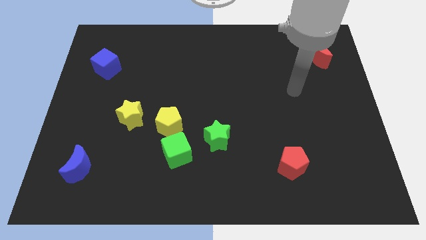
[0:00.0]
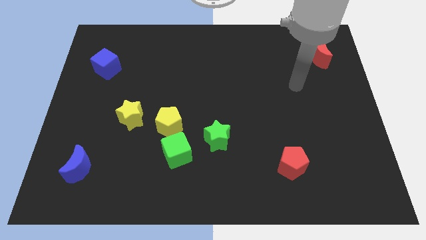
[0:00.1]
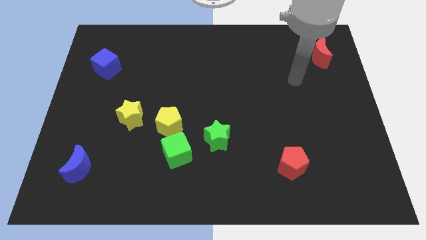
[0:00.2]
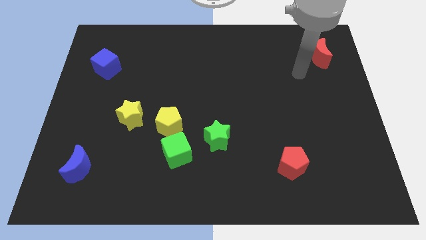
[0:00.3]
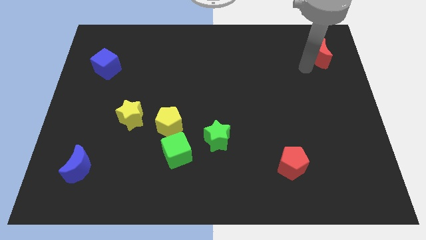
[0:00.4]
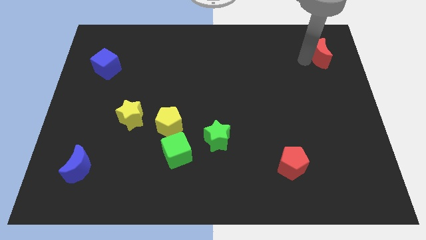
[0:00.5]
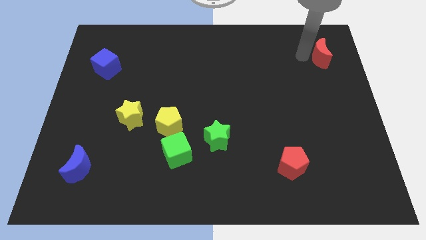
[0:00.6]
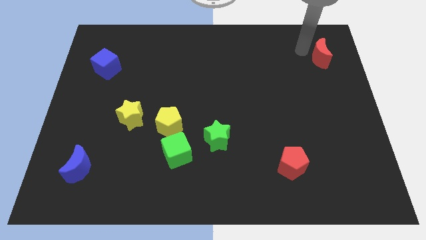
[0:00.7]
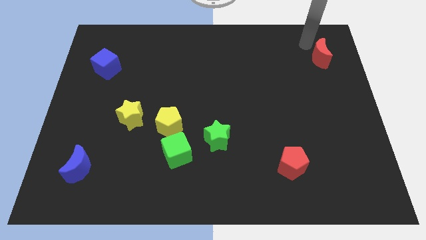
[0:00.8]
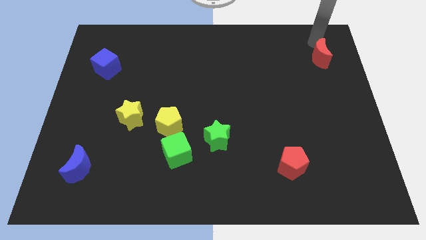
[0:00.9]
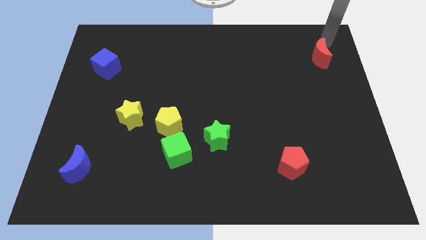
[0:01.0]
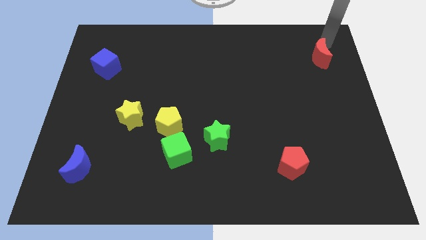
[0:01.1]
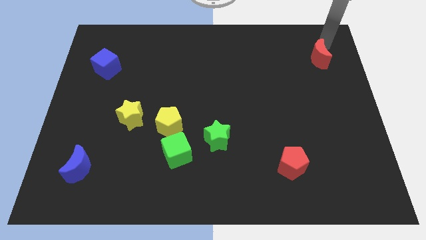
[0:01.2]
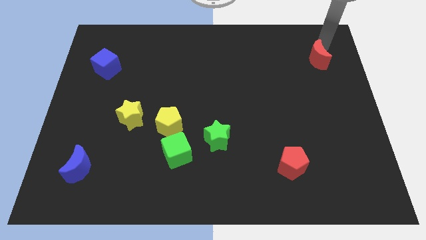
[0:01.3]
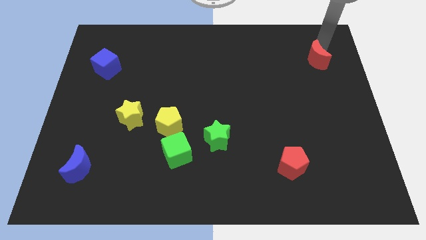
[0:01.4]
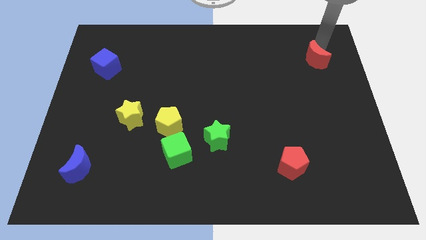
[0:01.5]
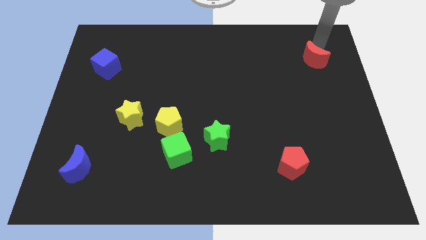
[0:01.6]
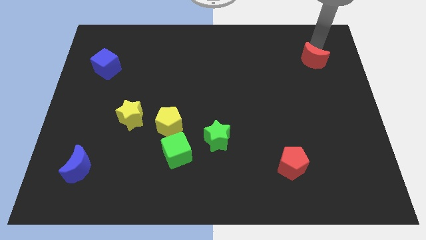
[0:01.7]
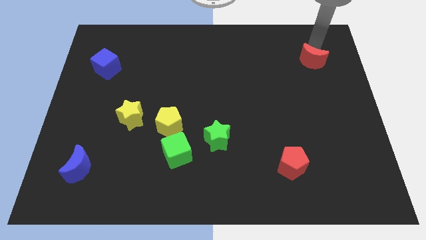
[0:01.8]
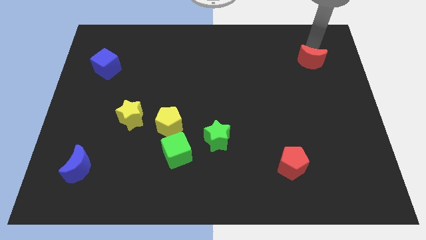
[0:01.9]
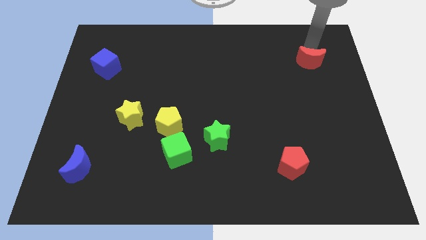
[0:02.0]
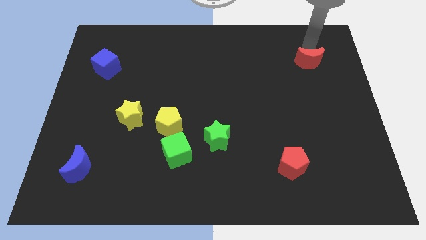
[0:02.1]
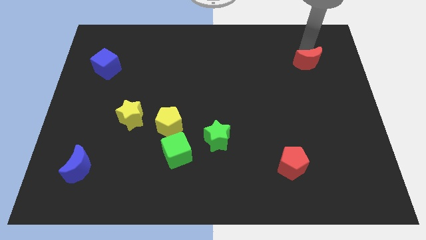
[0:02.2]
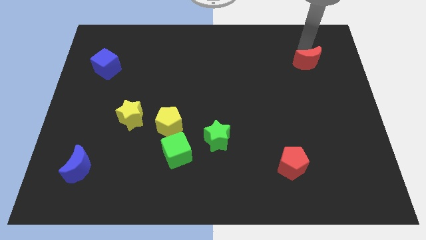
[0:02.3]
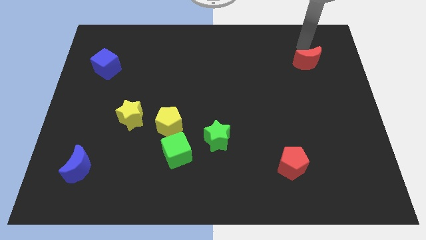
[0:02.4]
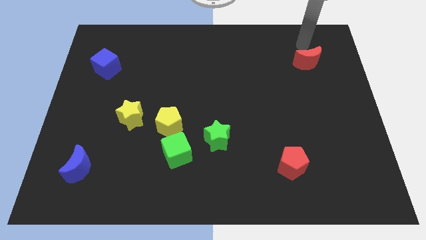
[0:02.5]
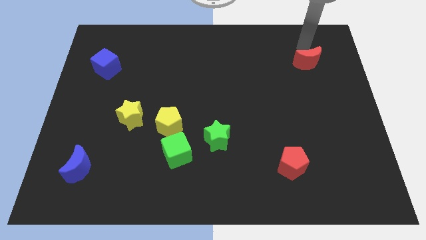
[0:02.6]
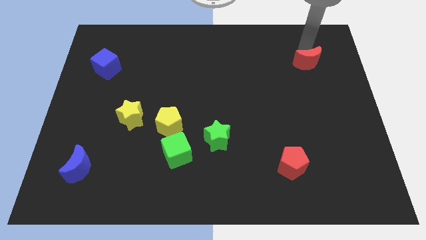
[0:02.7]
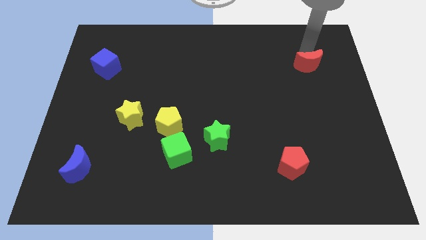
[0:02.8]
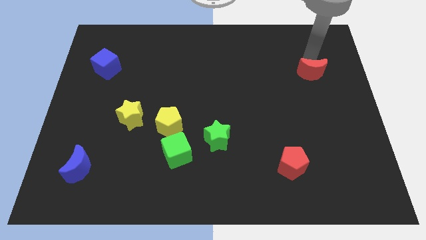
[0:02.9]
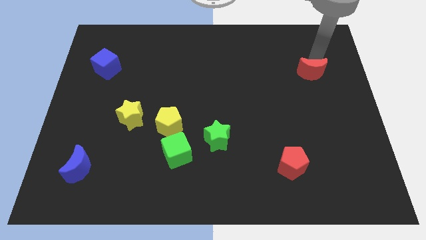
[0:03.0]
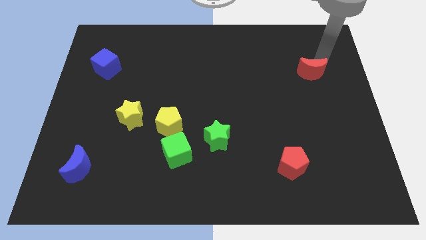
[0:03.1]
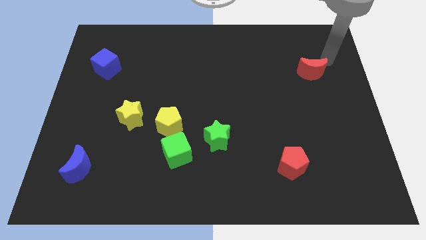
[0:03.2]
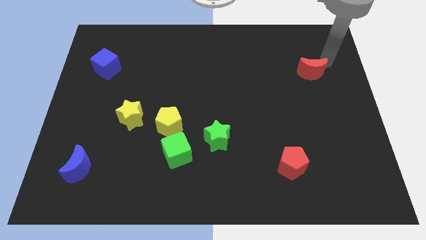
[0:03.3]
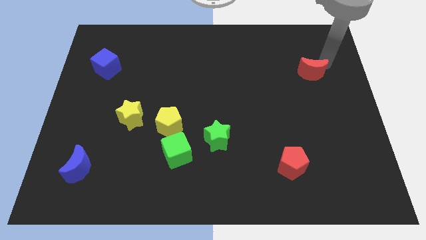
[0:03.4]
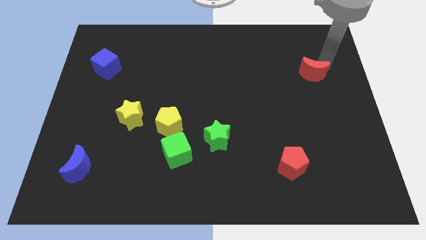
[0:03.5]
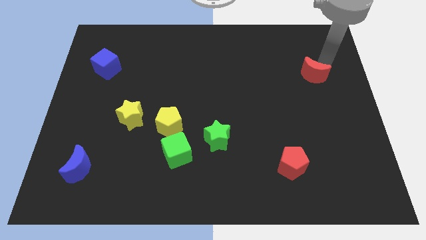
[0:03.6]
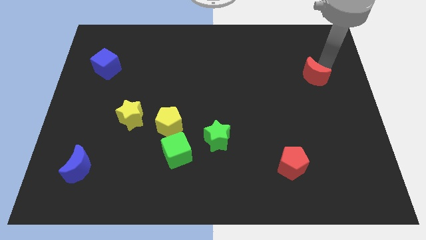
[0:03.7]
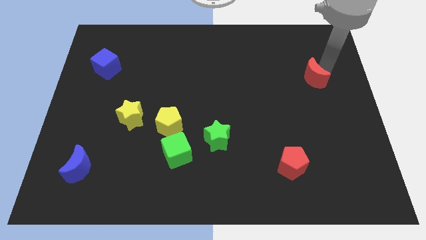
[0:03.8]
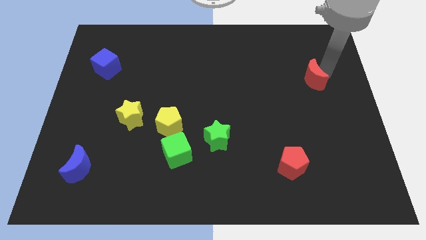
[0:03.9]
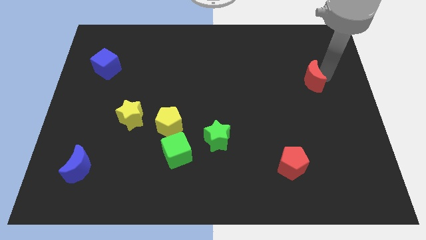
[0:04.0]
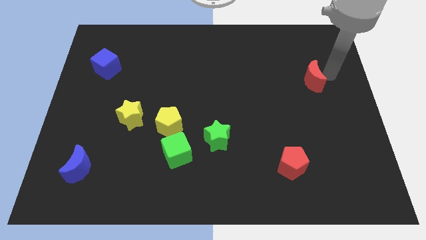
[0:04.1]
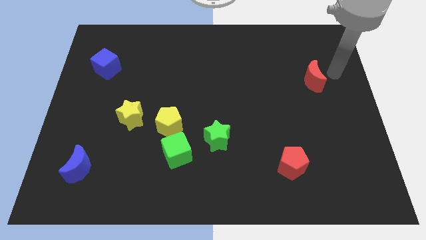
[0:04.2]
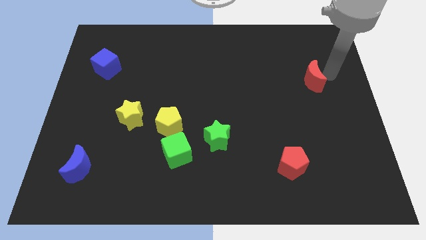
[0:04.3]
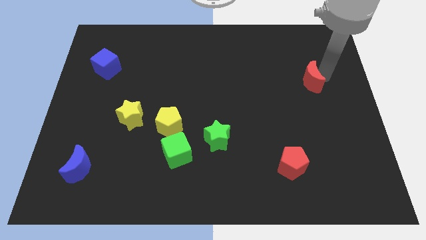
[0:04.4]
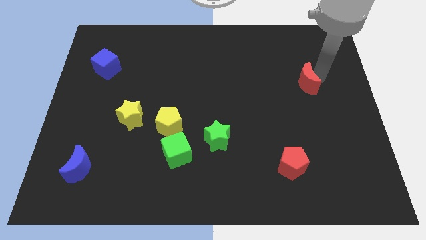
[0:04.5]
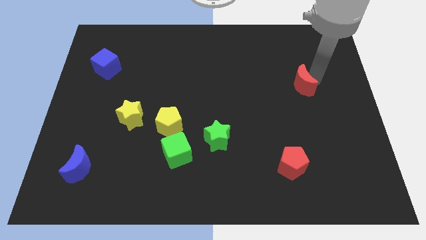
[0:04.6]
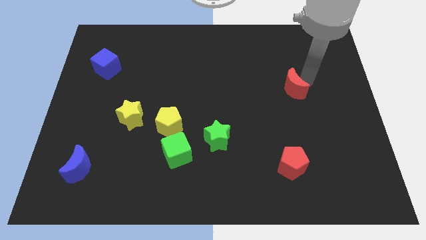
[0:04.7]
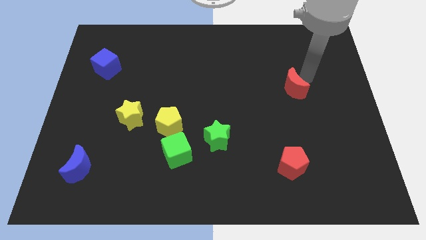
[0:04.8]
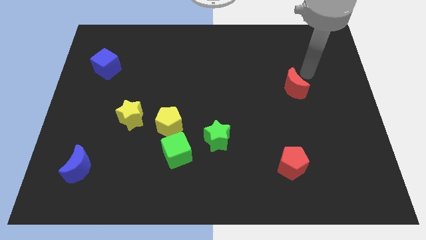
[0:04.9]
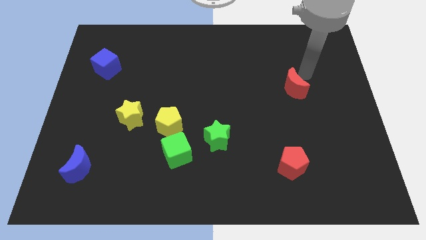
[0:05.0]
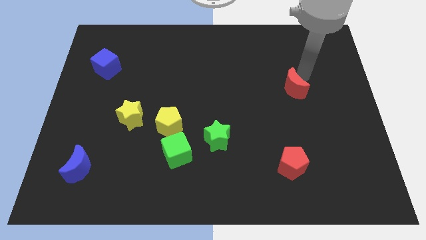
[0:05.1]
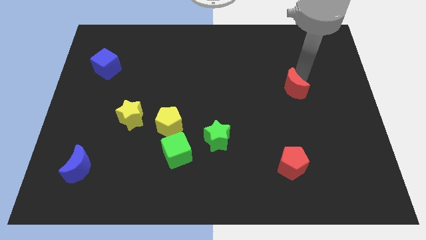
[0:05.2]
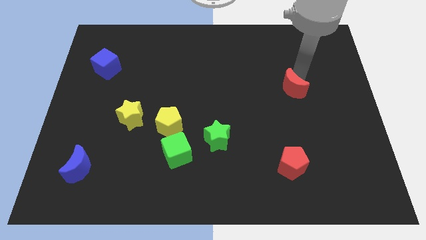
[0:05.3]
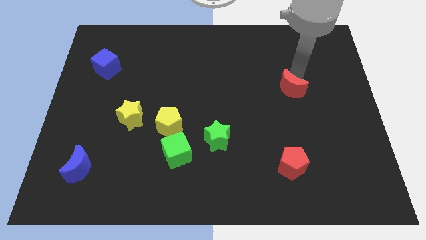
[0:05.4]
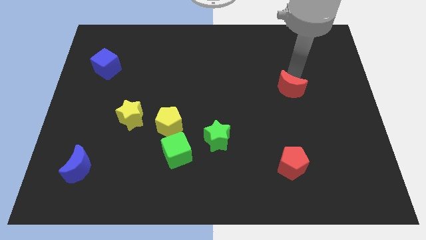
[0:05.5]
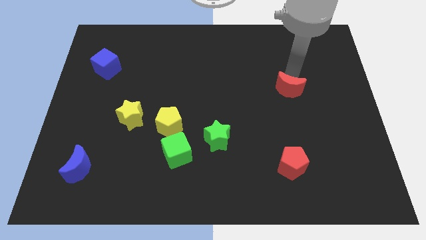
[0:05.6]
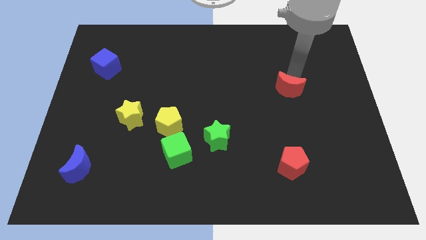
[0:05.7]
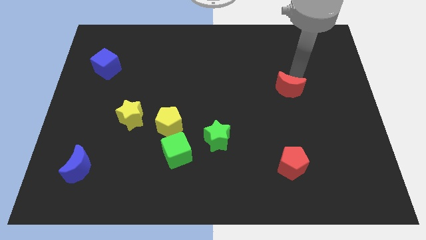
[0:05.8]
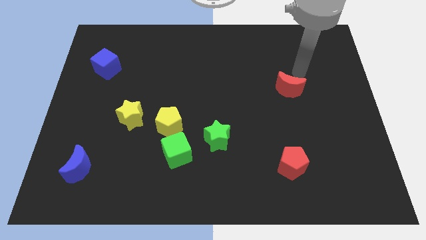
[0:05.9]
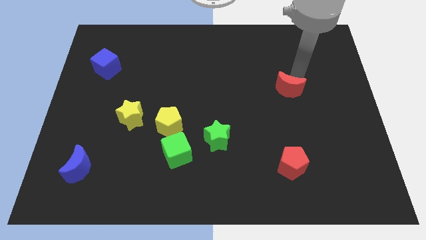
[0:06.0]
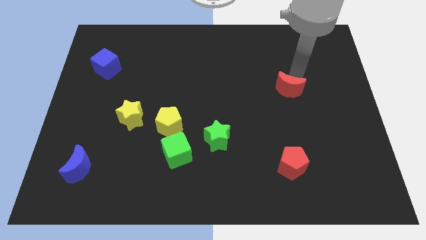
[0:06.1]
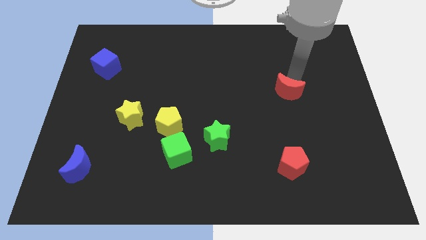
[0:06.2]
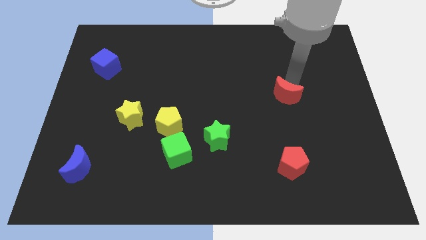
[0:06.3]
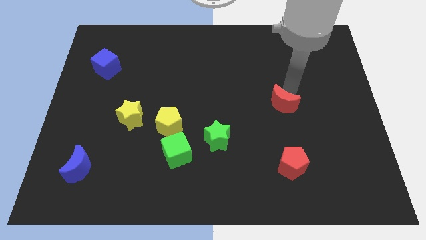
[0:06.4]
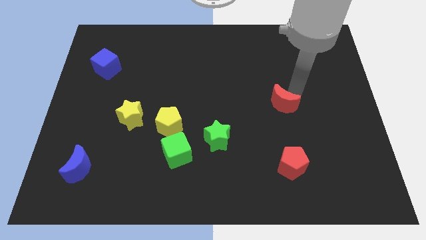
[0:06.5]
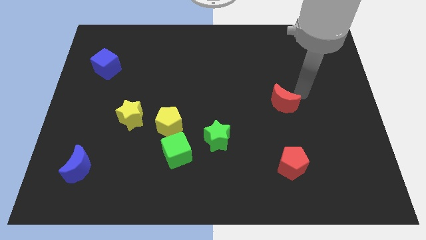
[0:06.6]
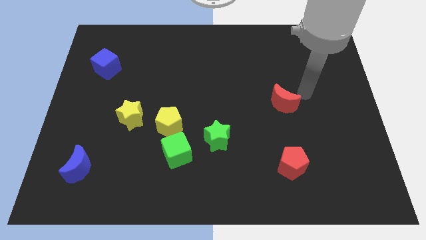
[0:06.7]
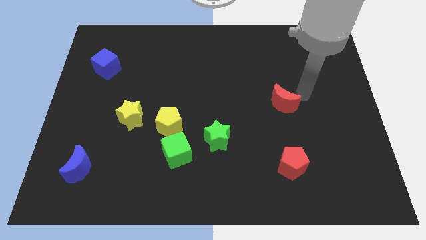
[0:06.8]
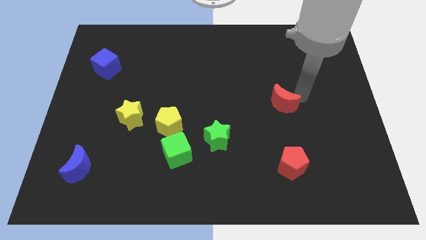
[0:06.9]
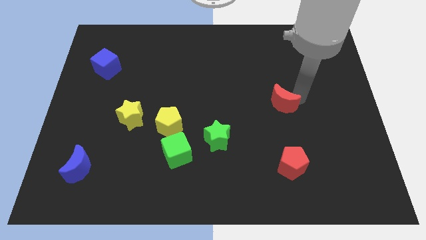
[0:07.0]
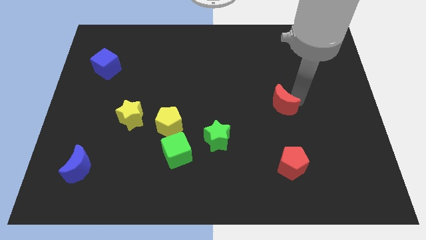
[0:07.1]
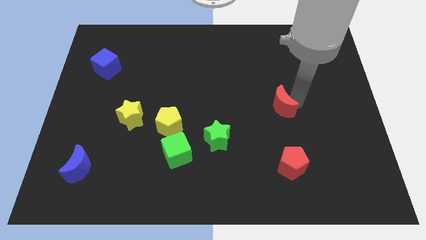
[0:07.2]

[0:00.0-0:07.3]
slide the red moon diagonally down and to the left

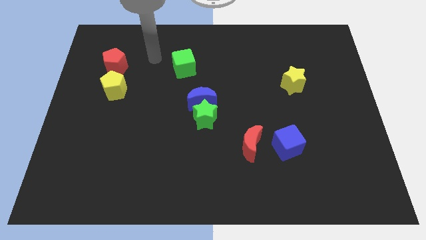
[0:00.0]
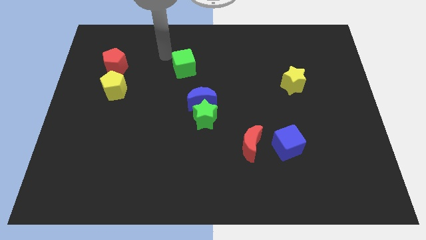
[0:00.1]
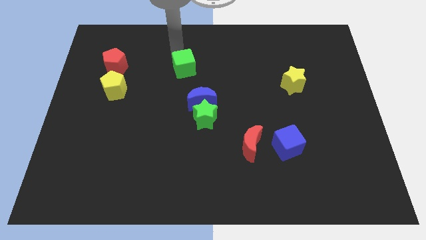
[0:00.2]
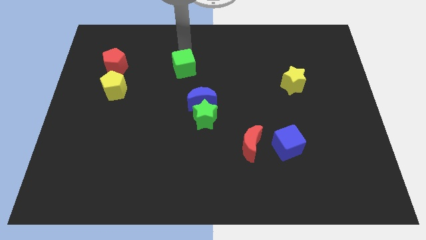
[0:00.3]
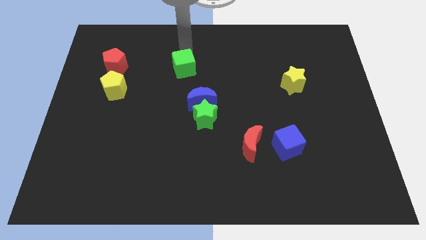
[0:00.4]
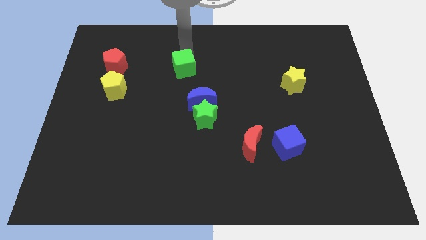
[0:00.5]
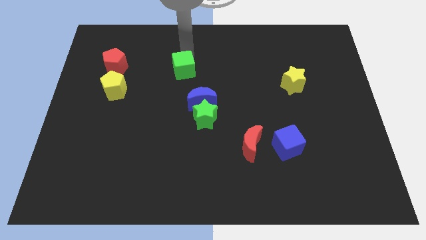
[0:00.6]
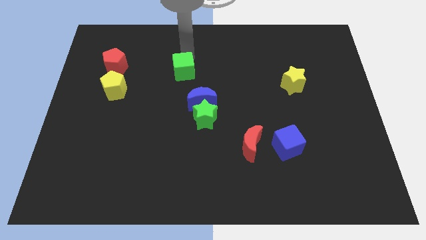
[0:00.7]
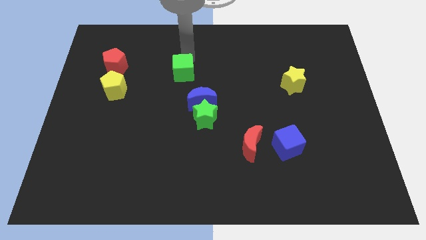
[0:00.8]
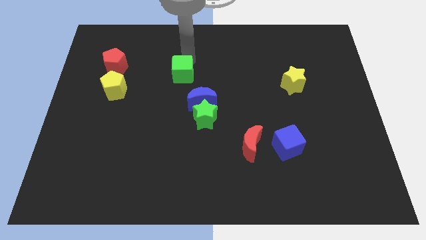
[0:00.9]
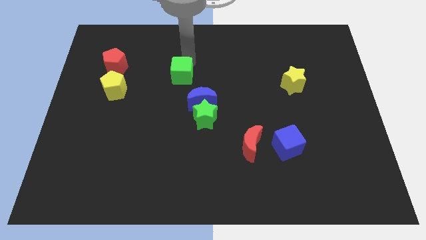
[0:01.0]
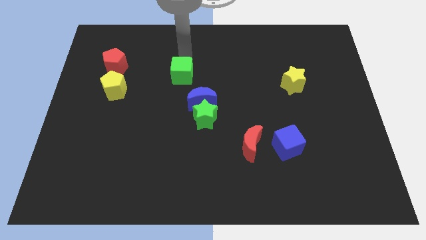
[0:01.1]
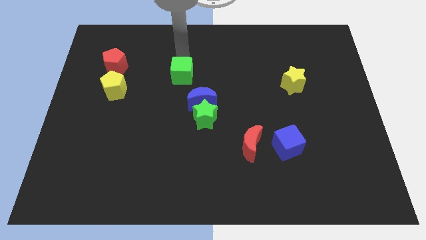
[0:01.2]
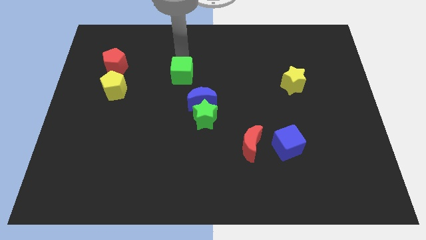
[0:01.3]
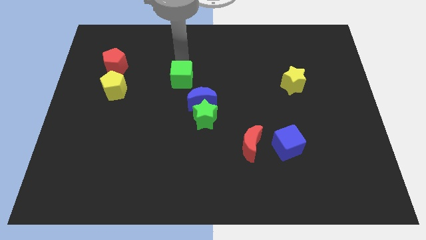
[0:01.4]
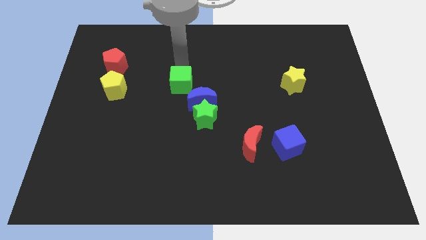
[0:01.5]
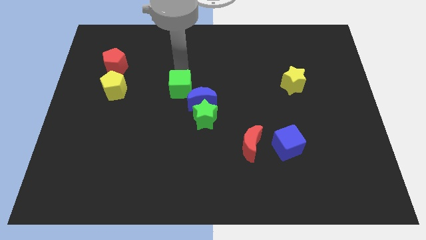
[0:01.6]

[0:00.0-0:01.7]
slightly slide the green cube downwards
